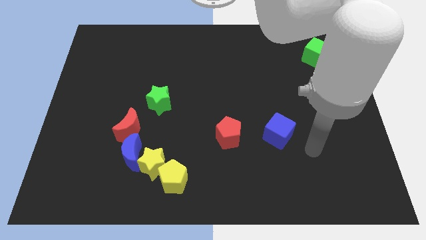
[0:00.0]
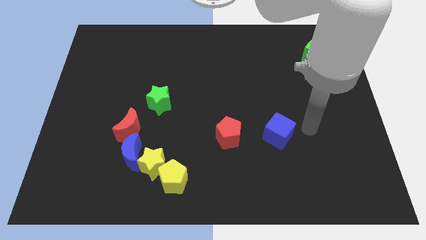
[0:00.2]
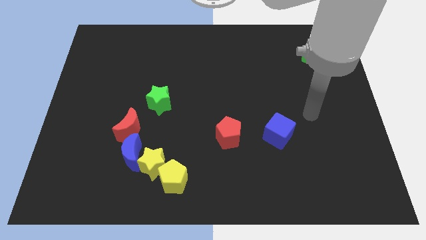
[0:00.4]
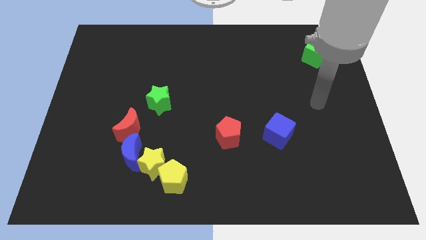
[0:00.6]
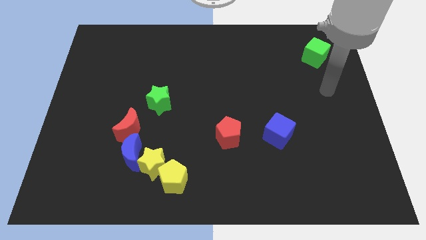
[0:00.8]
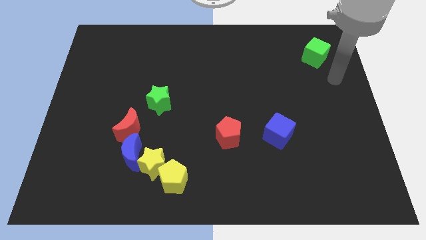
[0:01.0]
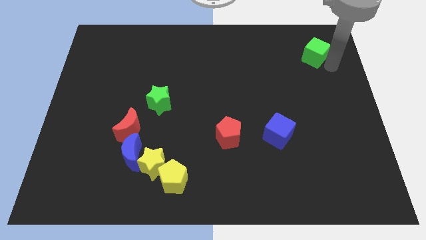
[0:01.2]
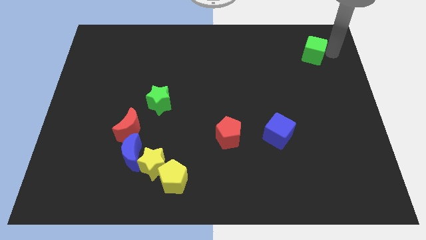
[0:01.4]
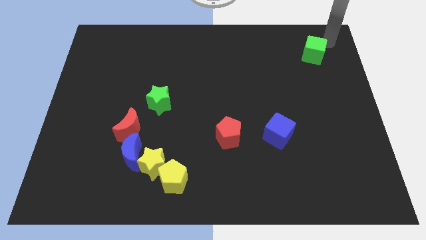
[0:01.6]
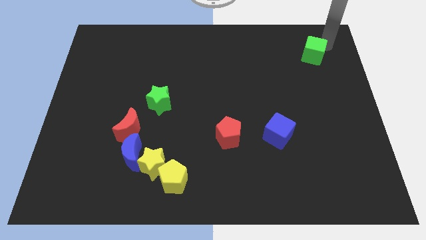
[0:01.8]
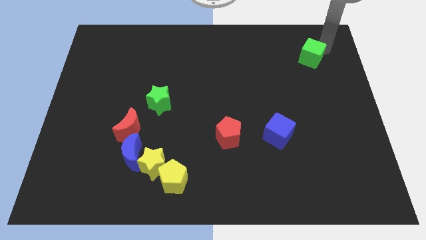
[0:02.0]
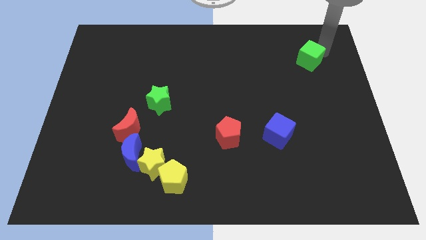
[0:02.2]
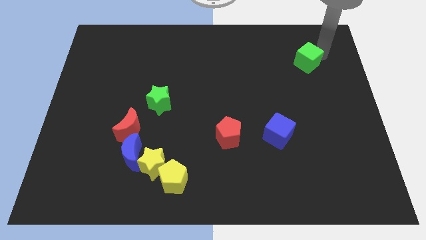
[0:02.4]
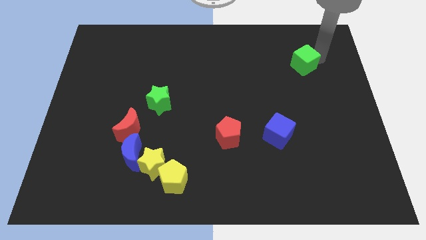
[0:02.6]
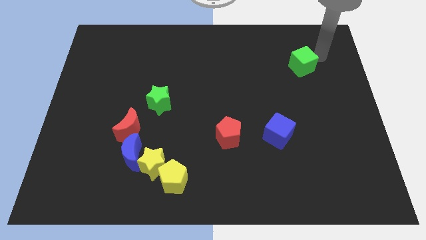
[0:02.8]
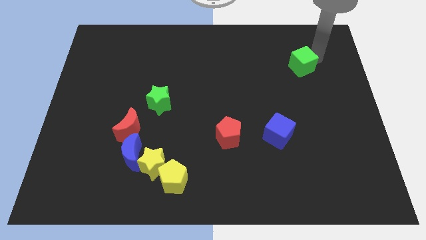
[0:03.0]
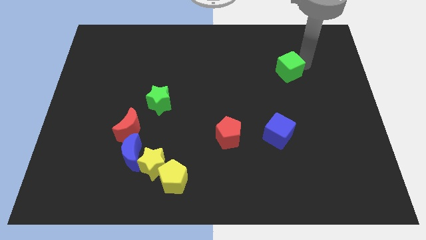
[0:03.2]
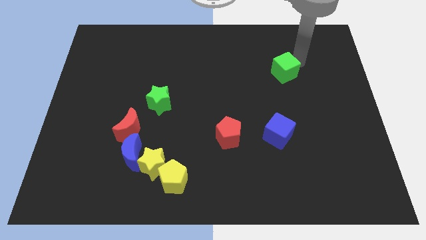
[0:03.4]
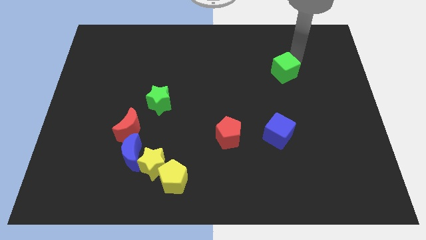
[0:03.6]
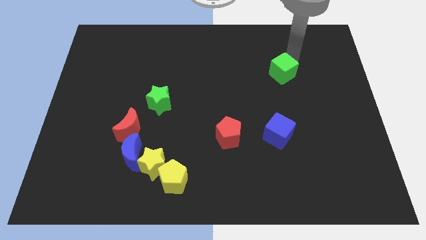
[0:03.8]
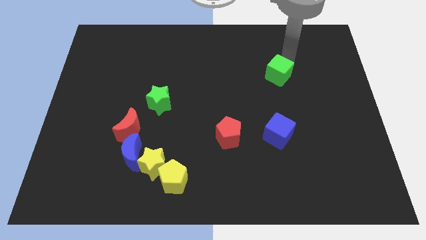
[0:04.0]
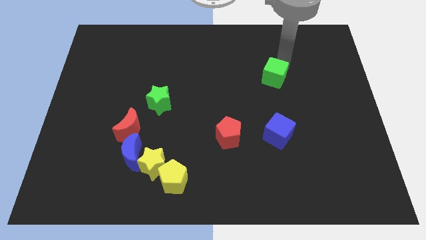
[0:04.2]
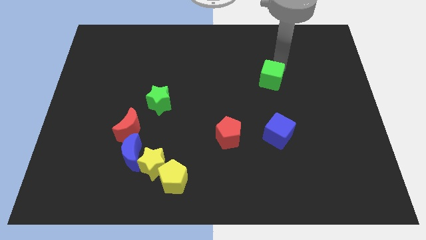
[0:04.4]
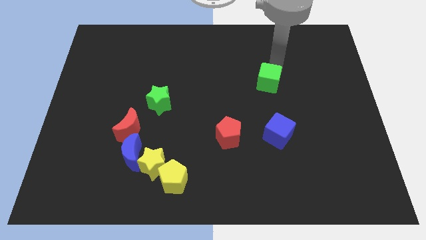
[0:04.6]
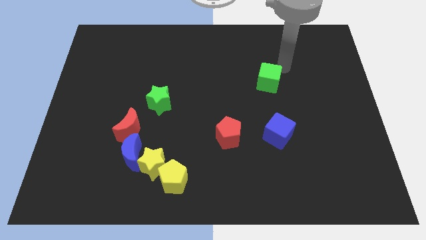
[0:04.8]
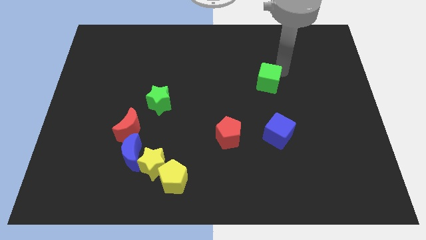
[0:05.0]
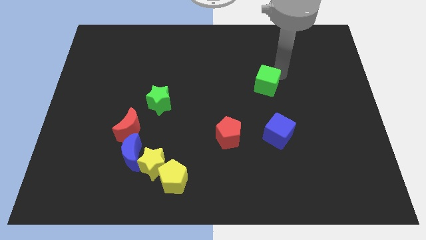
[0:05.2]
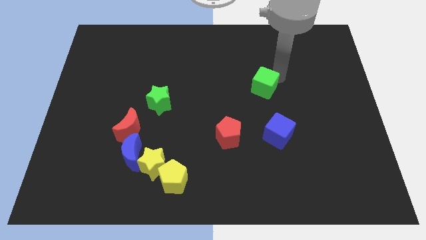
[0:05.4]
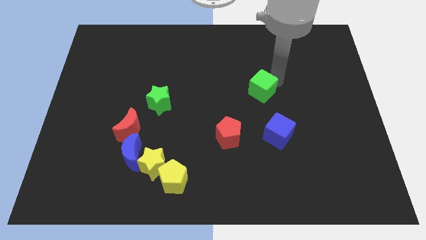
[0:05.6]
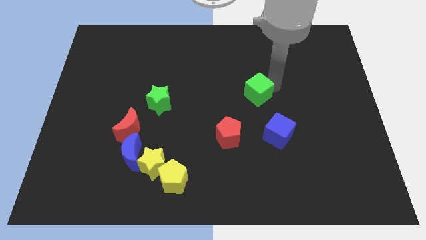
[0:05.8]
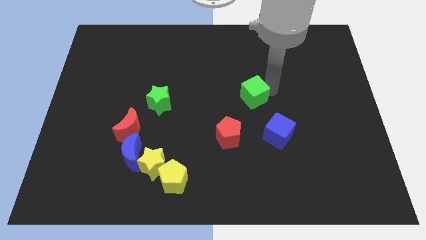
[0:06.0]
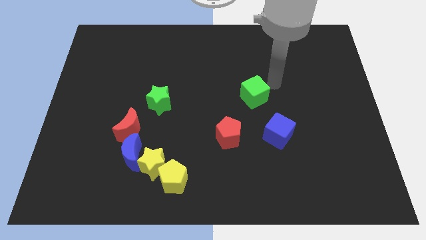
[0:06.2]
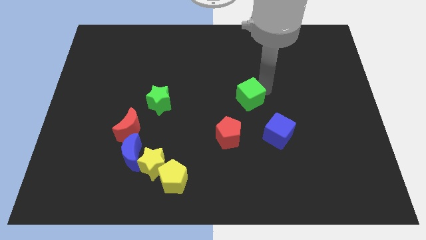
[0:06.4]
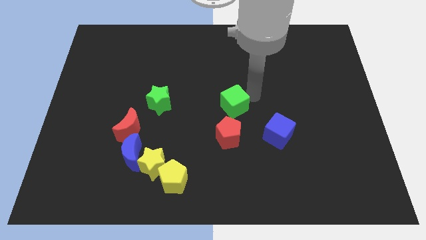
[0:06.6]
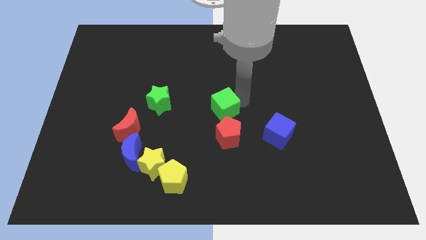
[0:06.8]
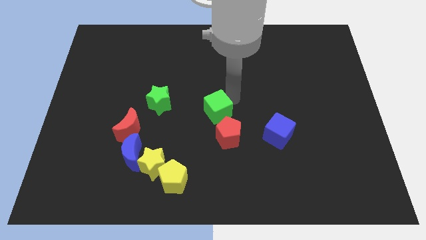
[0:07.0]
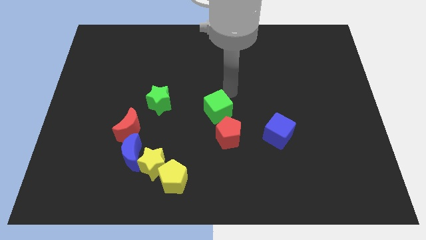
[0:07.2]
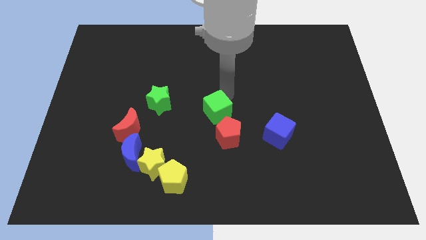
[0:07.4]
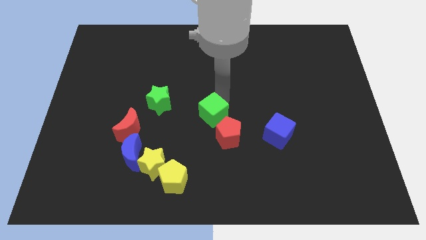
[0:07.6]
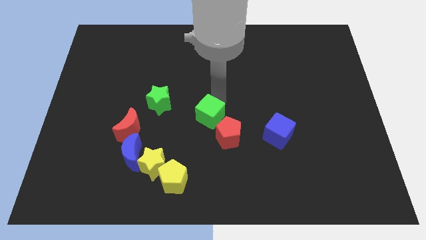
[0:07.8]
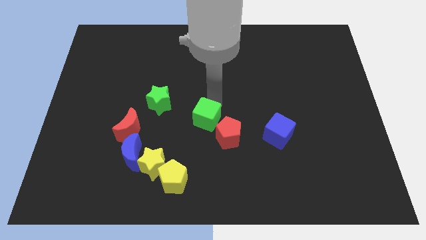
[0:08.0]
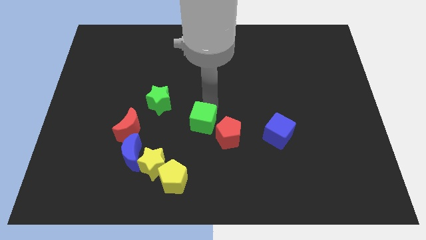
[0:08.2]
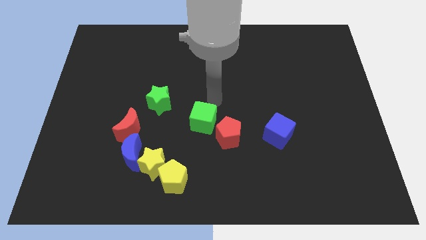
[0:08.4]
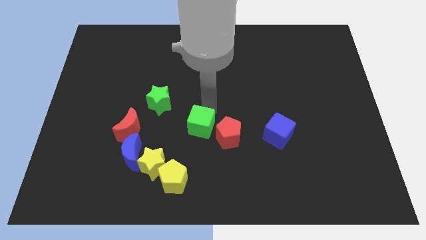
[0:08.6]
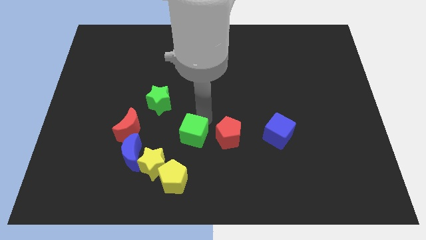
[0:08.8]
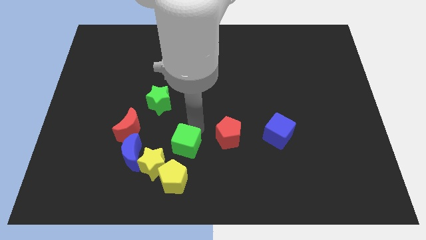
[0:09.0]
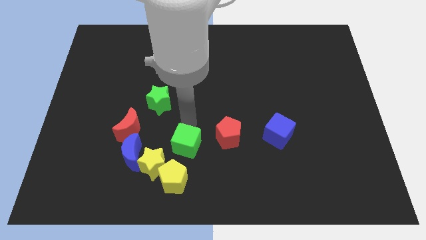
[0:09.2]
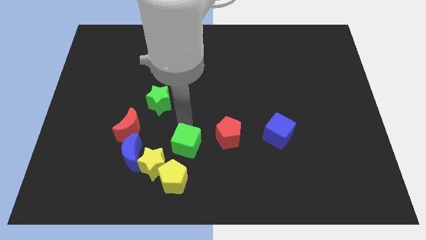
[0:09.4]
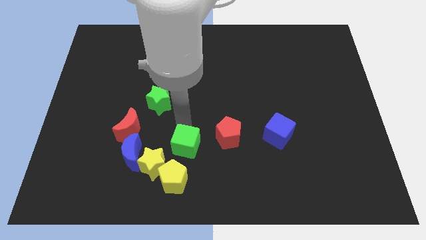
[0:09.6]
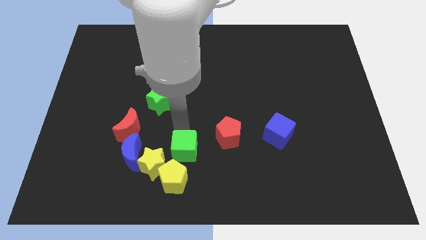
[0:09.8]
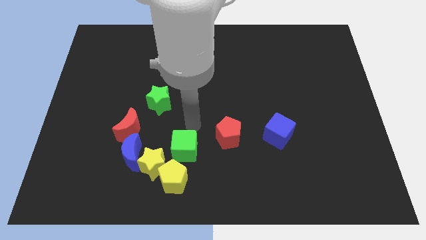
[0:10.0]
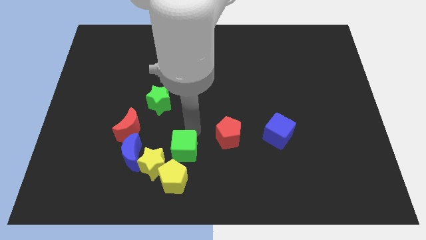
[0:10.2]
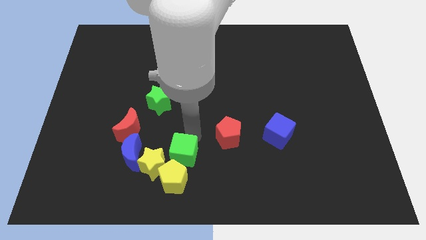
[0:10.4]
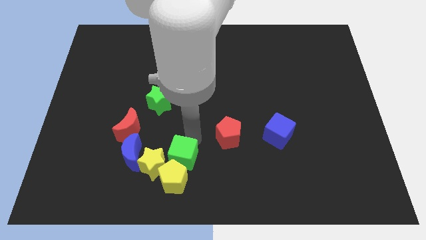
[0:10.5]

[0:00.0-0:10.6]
put the green cube close to the yellow pentagon
